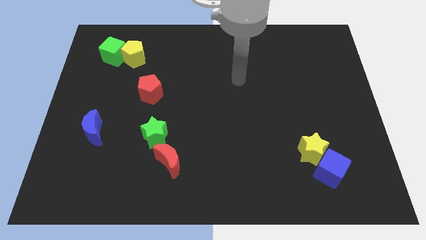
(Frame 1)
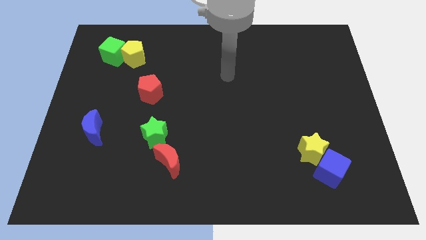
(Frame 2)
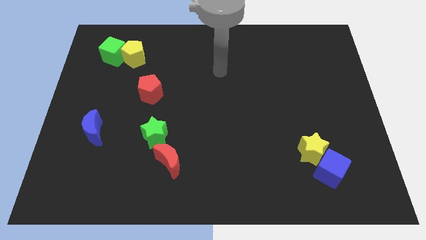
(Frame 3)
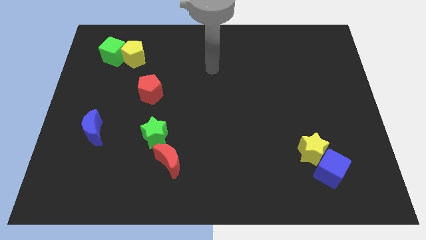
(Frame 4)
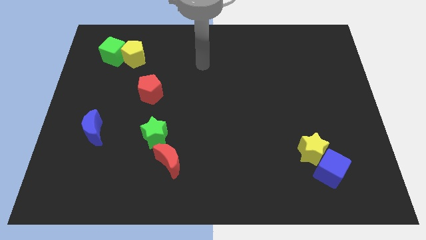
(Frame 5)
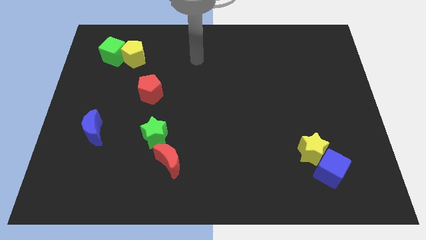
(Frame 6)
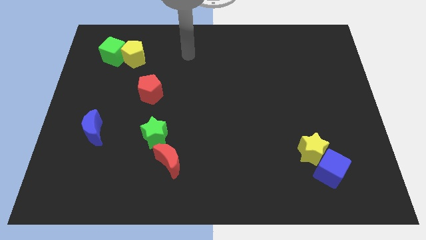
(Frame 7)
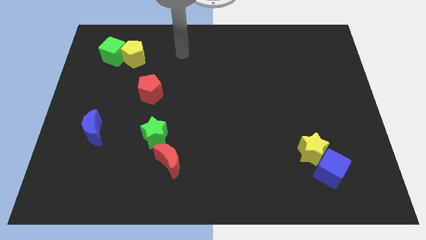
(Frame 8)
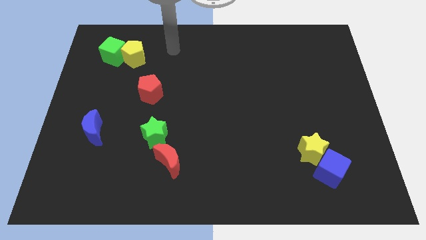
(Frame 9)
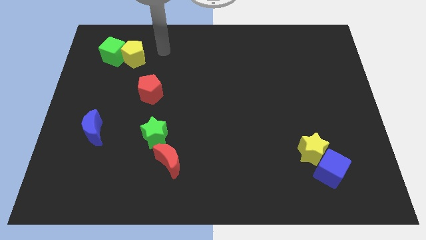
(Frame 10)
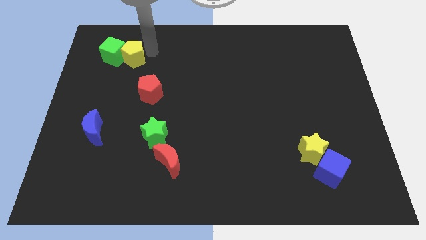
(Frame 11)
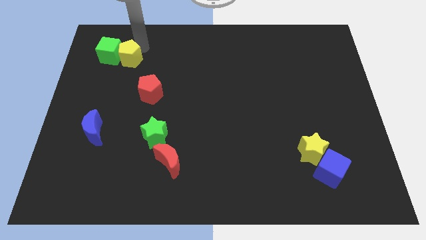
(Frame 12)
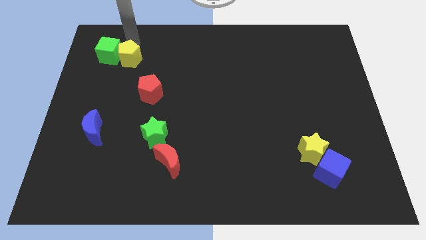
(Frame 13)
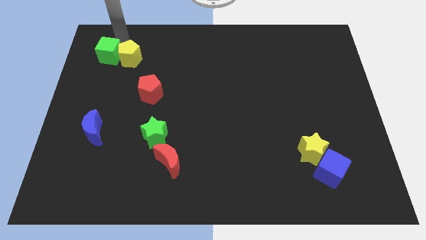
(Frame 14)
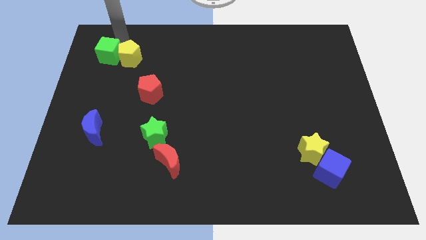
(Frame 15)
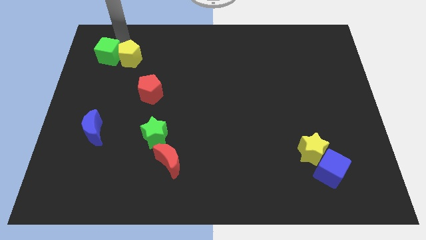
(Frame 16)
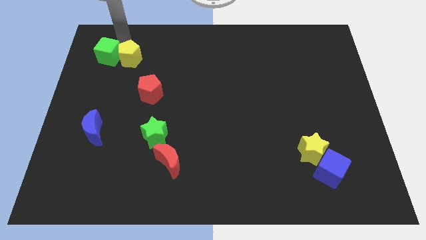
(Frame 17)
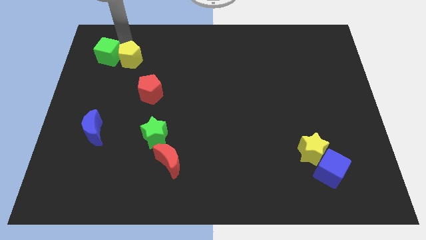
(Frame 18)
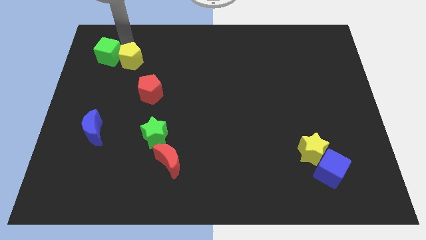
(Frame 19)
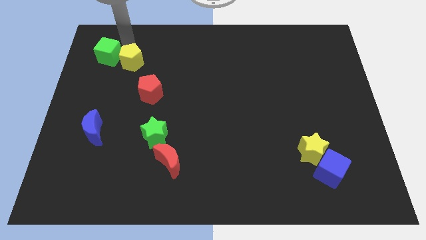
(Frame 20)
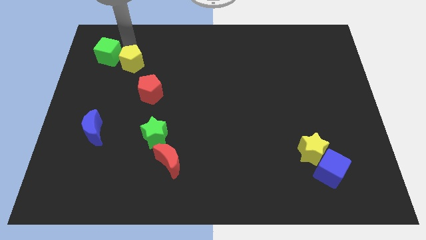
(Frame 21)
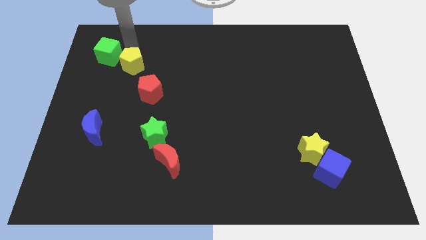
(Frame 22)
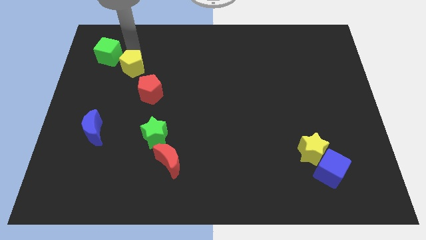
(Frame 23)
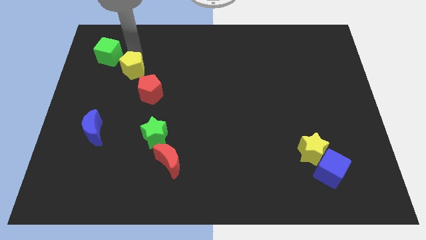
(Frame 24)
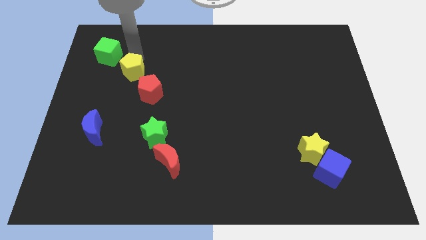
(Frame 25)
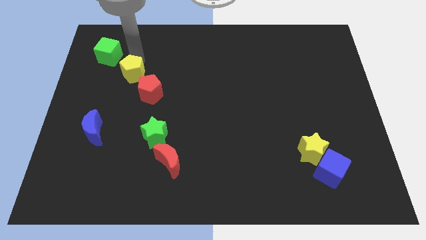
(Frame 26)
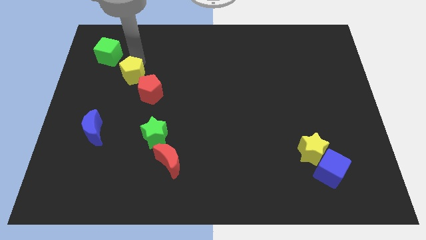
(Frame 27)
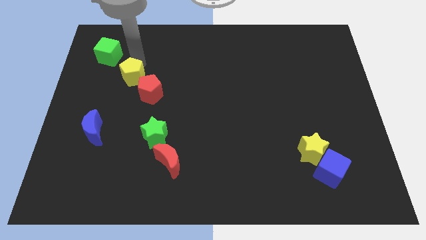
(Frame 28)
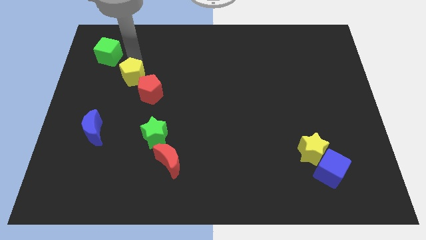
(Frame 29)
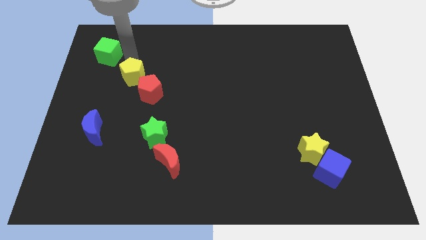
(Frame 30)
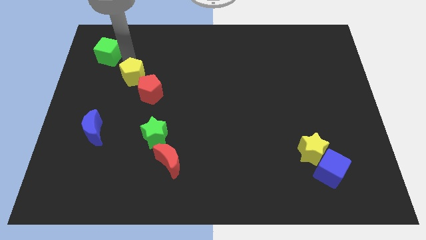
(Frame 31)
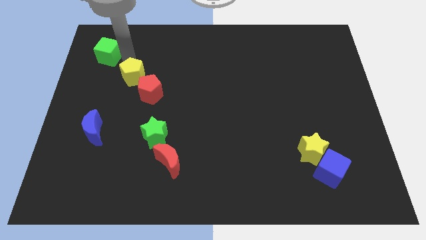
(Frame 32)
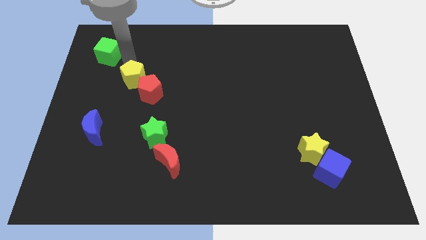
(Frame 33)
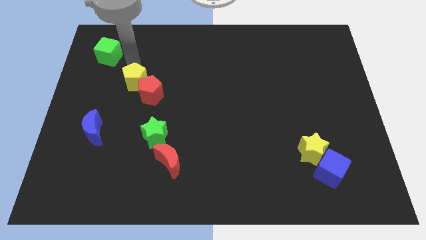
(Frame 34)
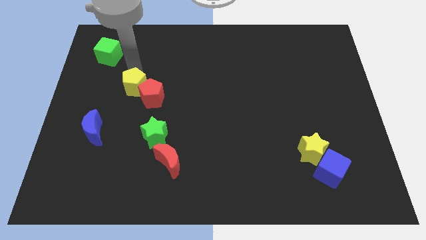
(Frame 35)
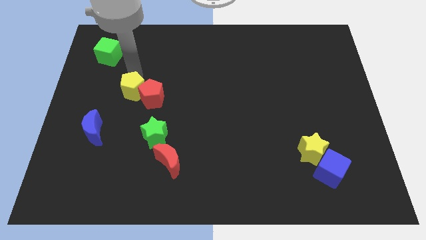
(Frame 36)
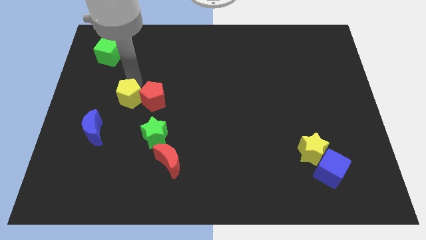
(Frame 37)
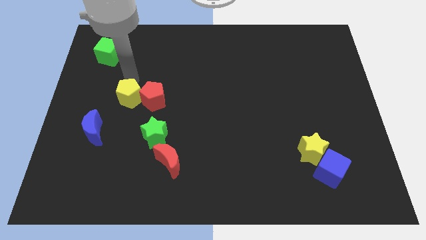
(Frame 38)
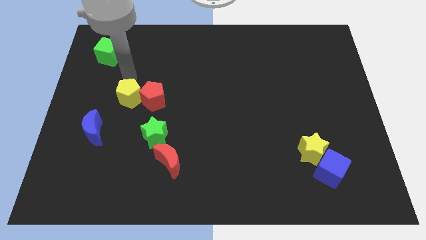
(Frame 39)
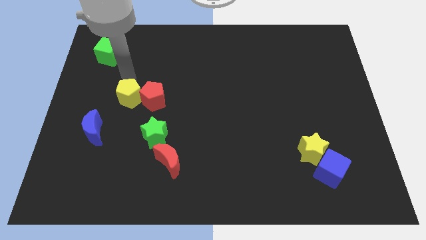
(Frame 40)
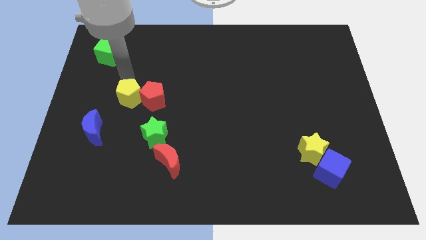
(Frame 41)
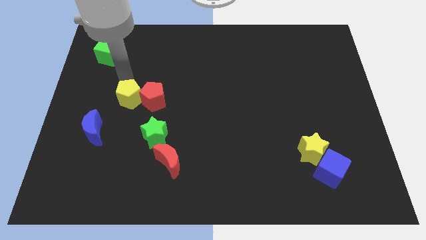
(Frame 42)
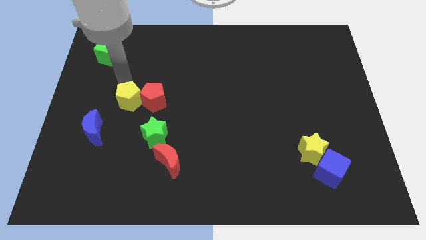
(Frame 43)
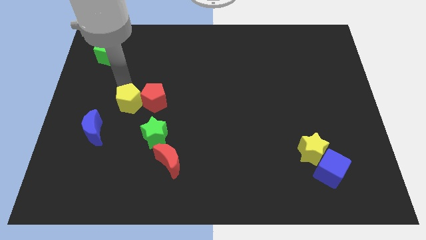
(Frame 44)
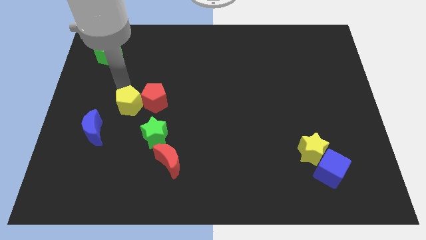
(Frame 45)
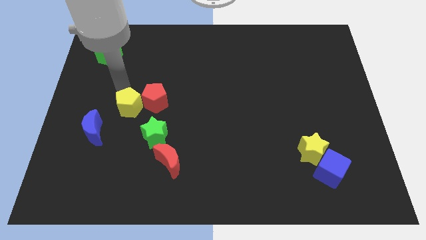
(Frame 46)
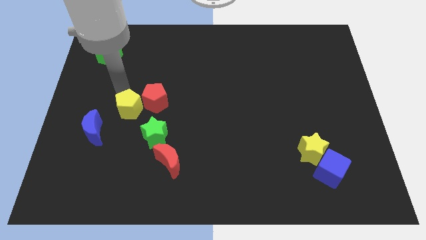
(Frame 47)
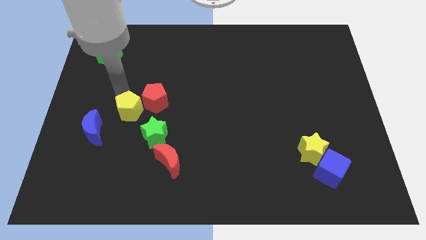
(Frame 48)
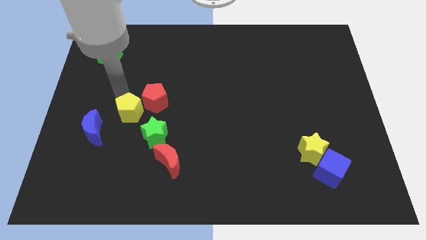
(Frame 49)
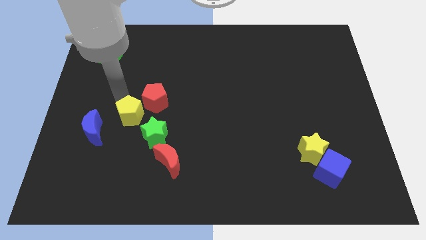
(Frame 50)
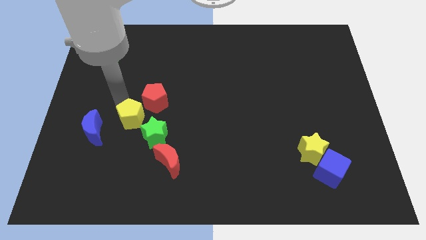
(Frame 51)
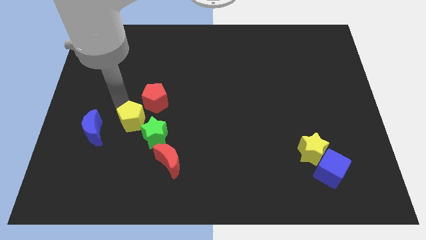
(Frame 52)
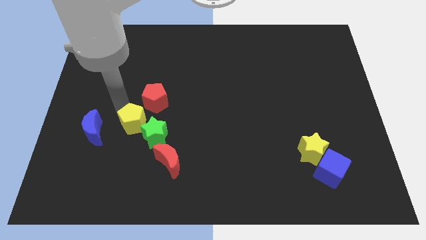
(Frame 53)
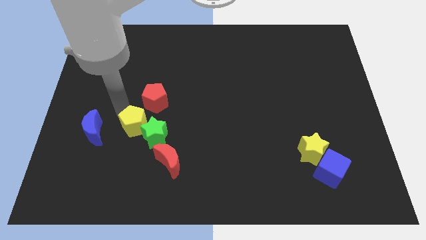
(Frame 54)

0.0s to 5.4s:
push the yellow pentagon to the top left of the red moon

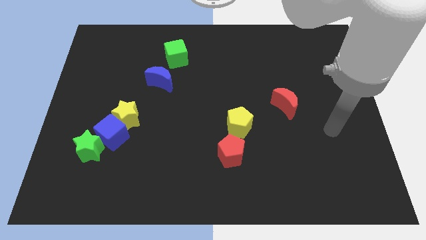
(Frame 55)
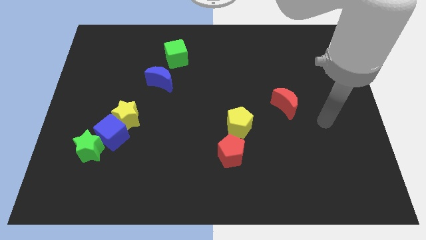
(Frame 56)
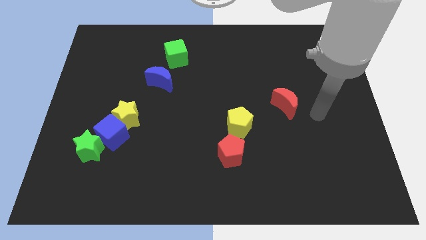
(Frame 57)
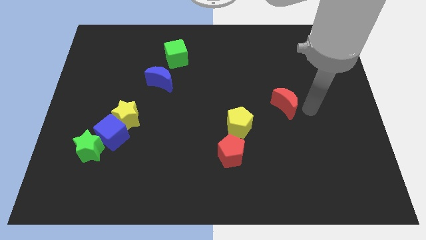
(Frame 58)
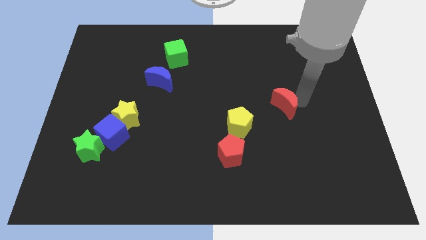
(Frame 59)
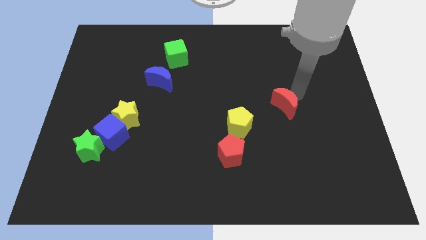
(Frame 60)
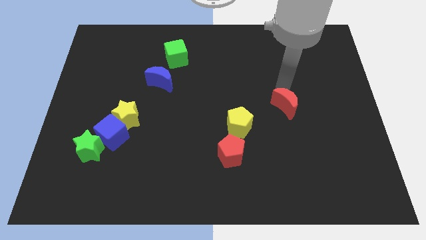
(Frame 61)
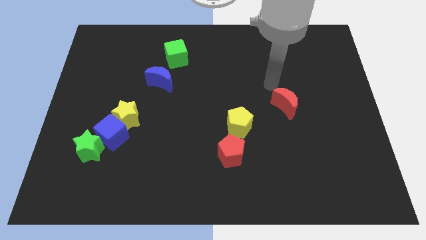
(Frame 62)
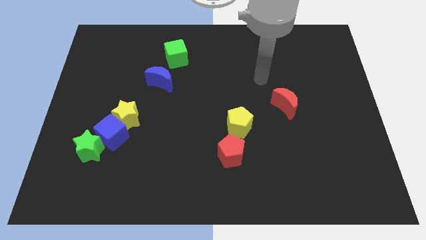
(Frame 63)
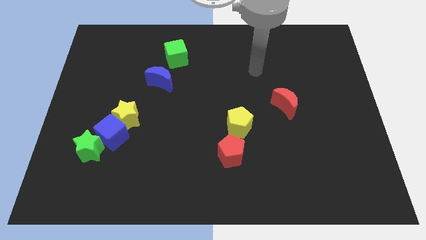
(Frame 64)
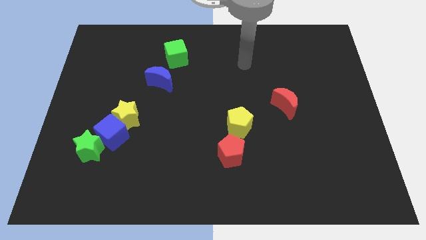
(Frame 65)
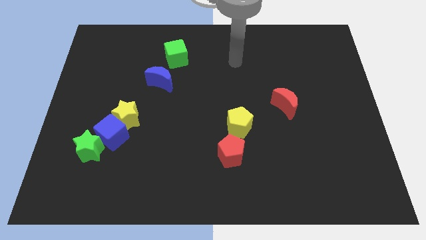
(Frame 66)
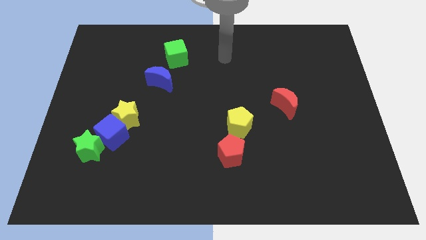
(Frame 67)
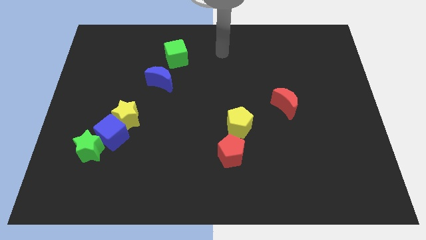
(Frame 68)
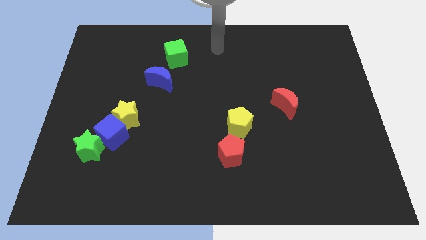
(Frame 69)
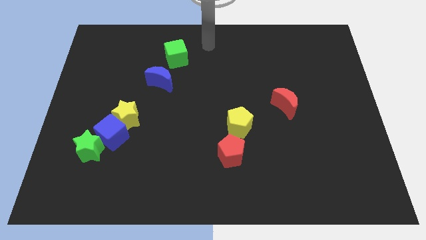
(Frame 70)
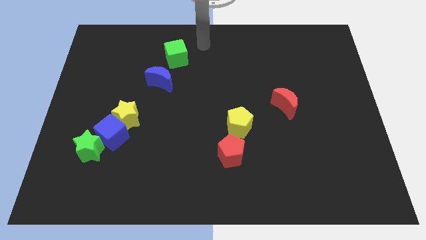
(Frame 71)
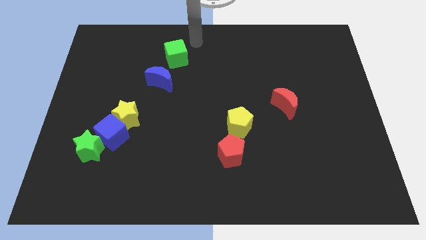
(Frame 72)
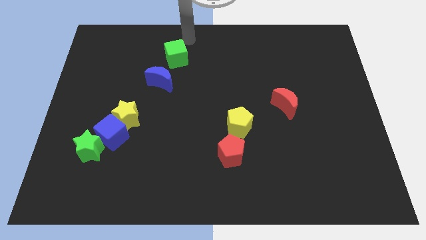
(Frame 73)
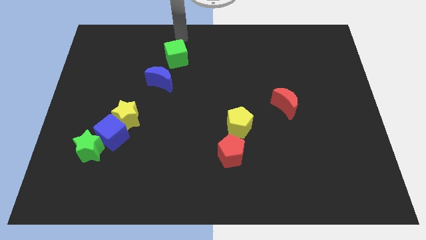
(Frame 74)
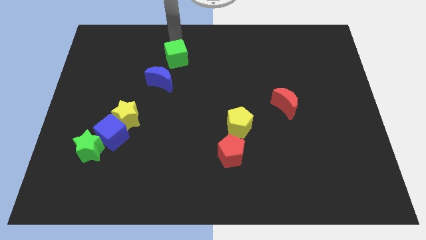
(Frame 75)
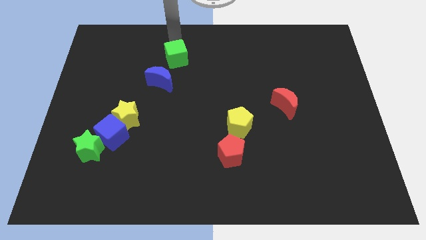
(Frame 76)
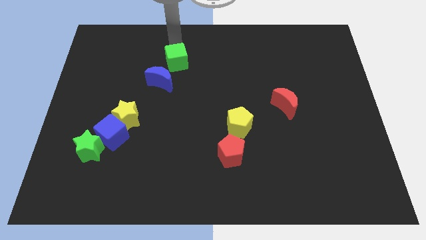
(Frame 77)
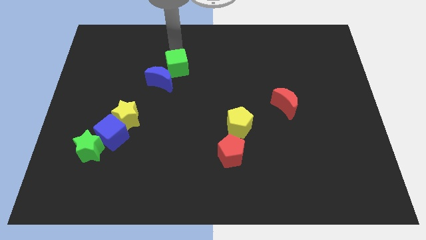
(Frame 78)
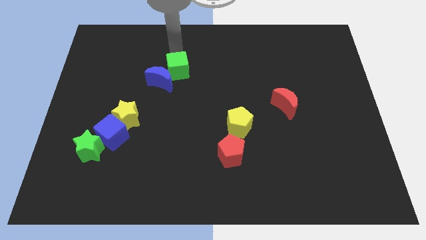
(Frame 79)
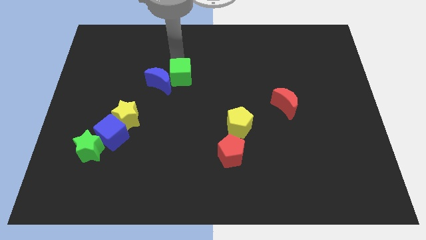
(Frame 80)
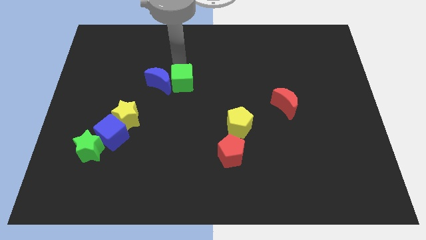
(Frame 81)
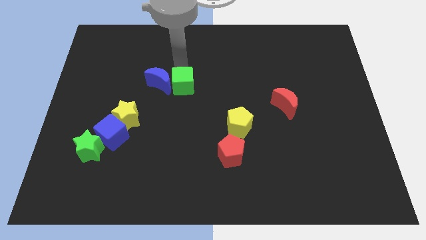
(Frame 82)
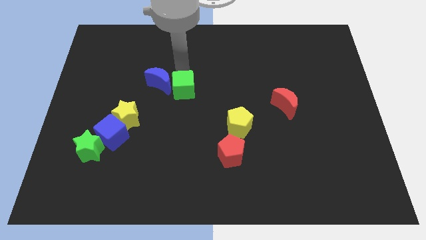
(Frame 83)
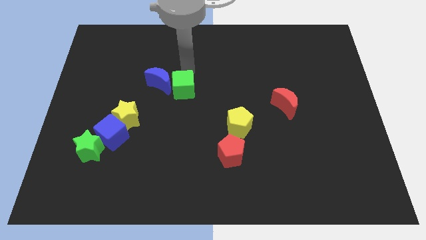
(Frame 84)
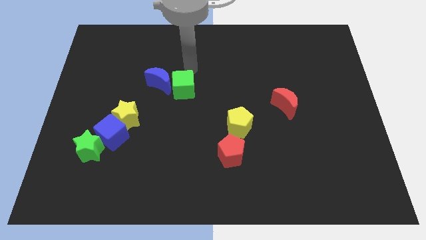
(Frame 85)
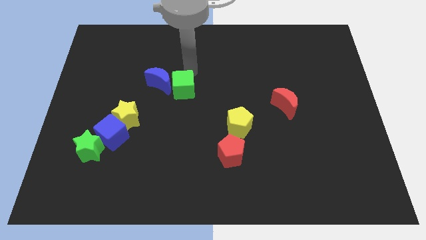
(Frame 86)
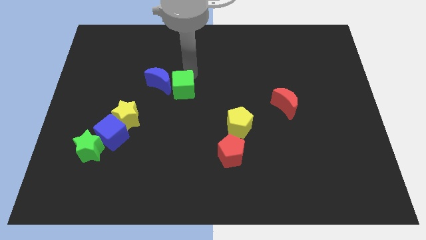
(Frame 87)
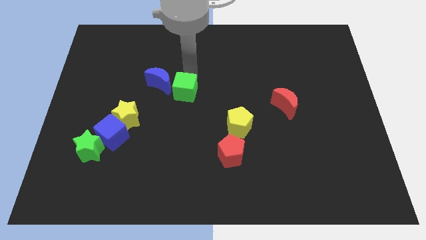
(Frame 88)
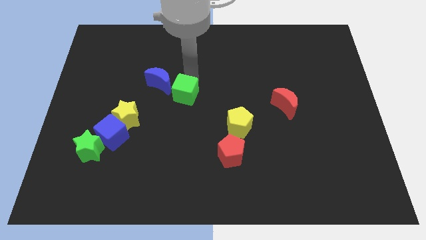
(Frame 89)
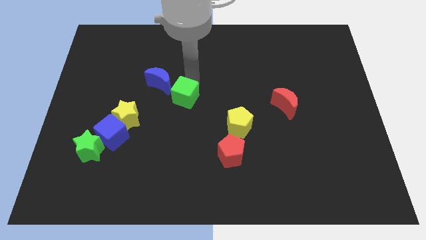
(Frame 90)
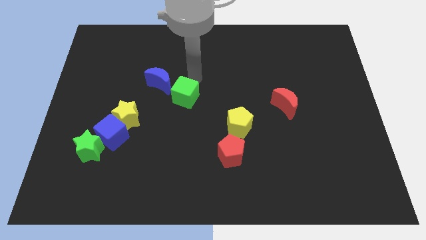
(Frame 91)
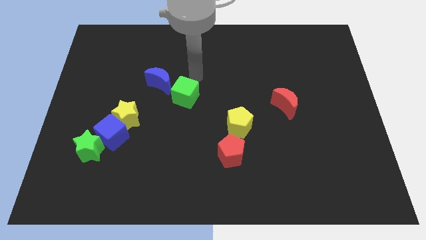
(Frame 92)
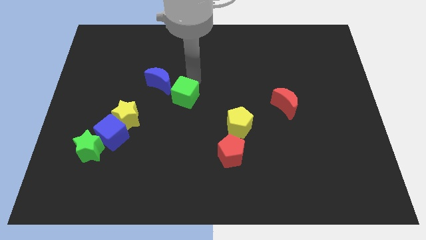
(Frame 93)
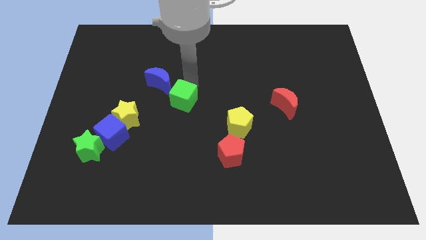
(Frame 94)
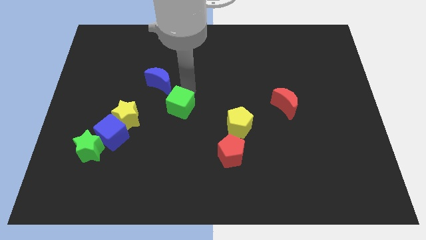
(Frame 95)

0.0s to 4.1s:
slide the green cube just right of the yellow star
